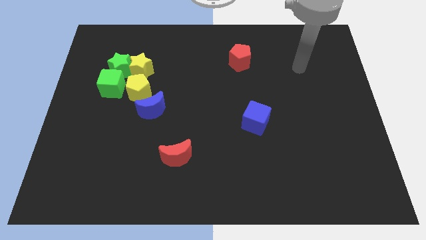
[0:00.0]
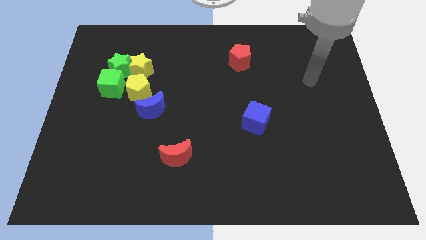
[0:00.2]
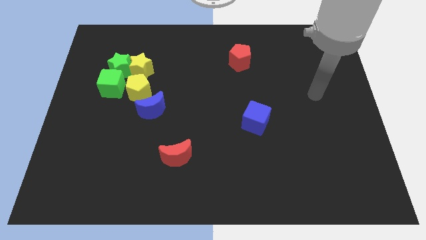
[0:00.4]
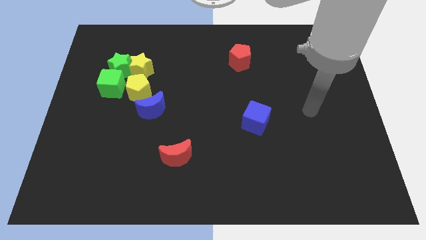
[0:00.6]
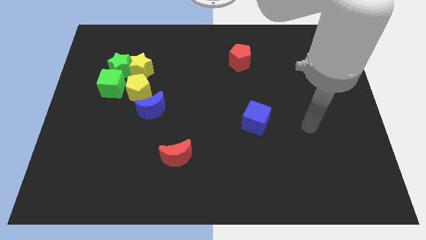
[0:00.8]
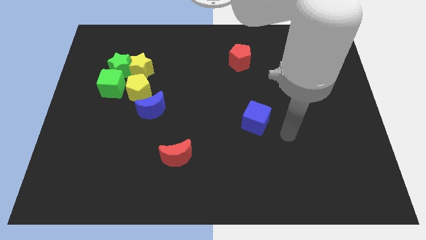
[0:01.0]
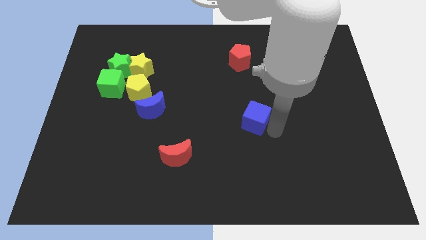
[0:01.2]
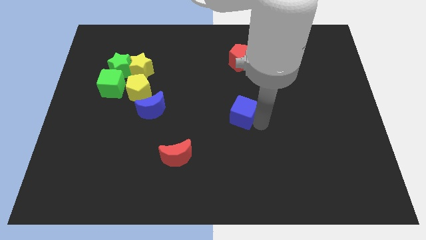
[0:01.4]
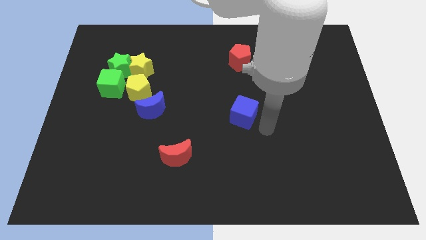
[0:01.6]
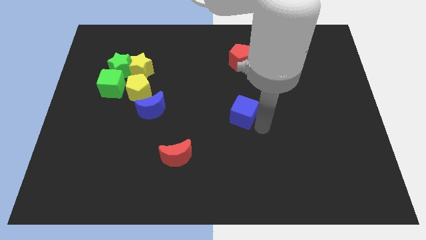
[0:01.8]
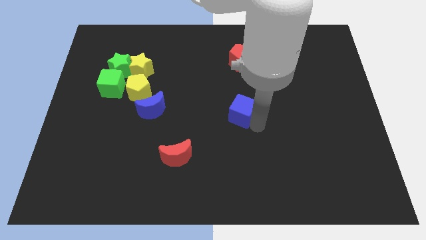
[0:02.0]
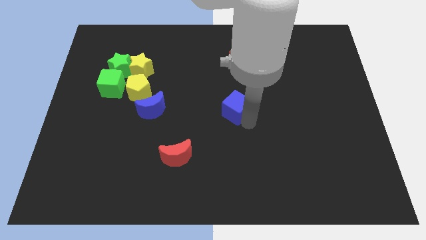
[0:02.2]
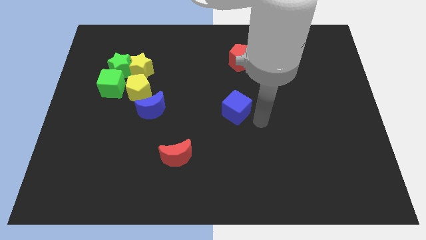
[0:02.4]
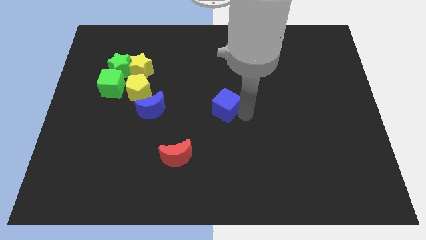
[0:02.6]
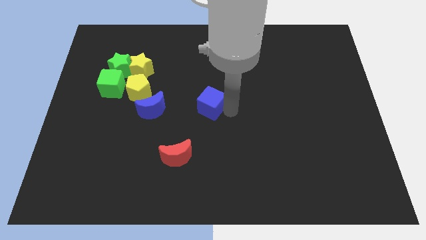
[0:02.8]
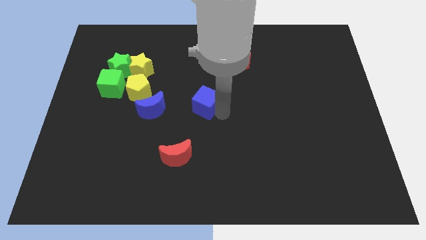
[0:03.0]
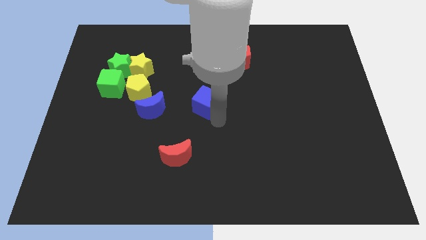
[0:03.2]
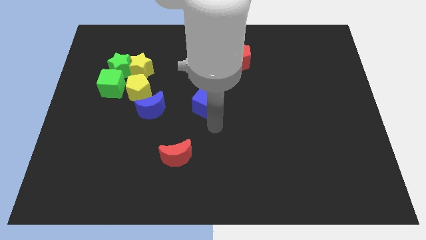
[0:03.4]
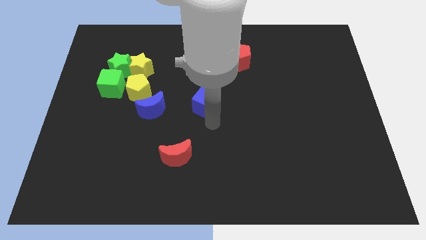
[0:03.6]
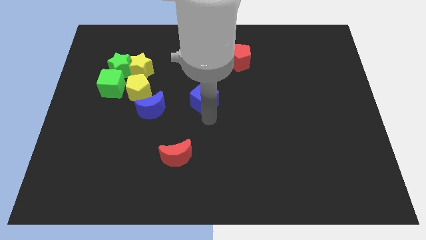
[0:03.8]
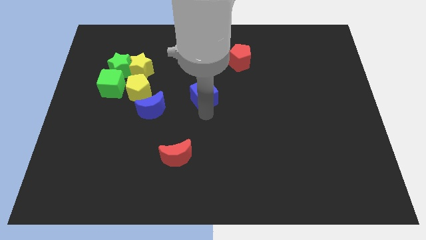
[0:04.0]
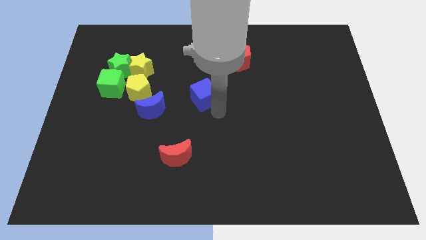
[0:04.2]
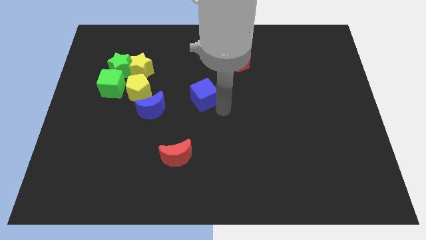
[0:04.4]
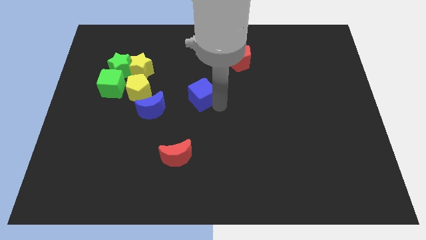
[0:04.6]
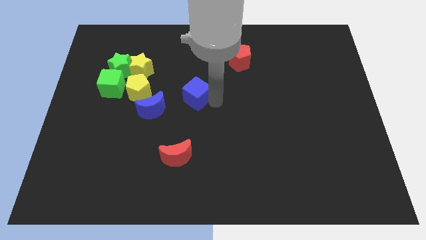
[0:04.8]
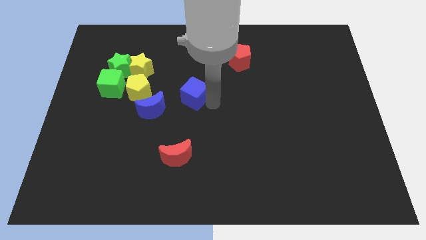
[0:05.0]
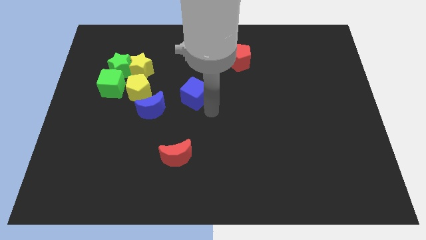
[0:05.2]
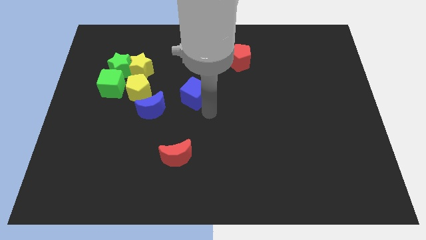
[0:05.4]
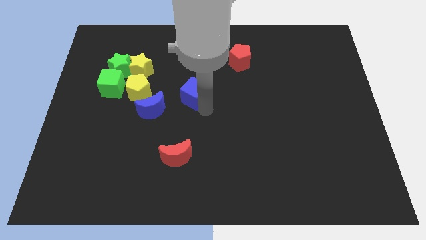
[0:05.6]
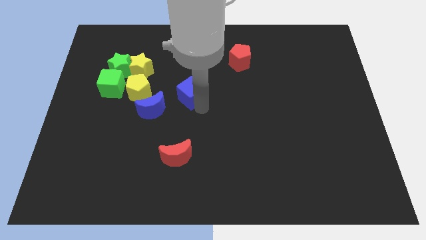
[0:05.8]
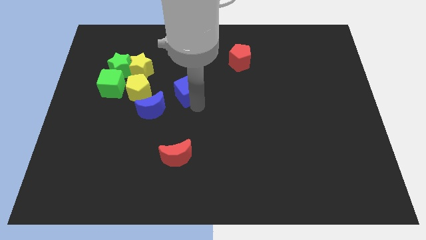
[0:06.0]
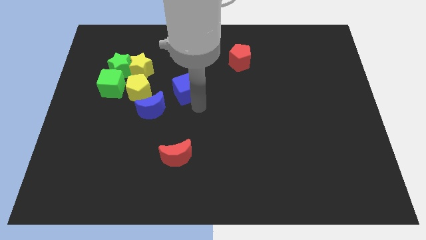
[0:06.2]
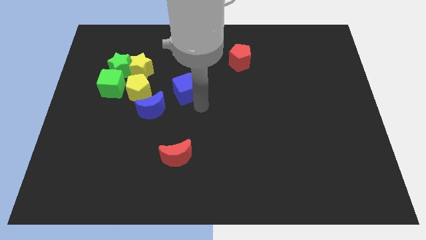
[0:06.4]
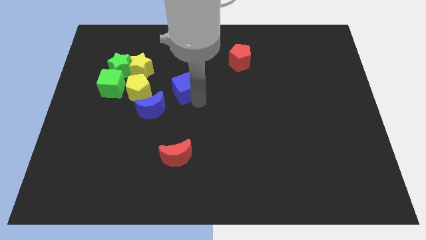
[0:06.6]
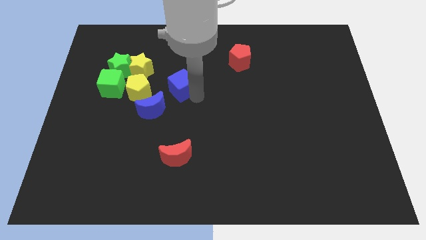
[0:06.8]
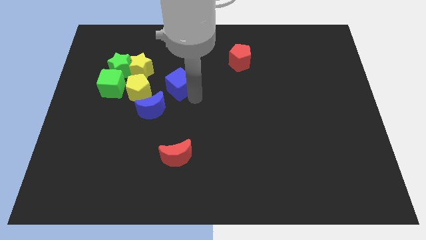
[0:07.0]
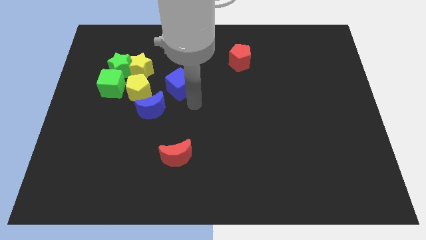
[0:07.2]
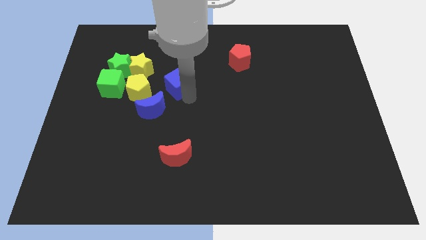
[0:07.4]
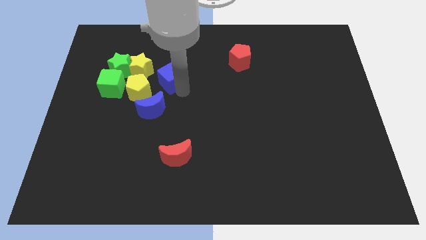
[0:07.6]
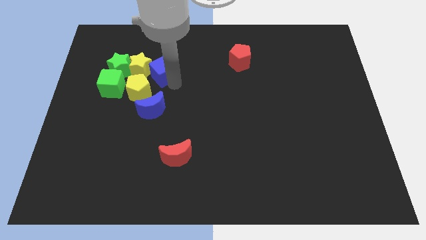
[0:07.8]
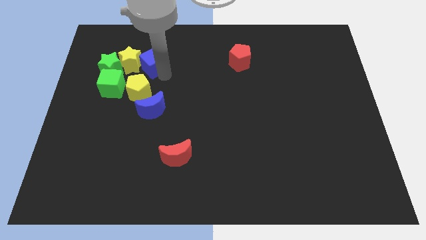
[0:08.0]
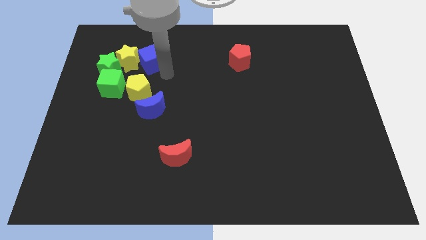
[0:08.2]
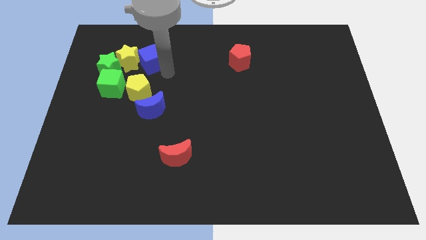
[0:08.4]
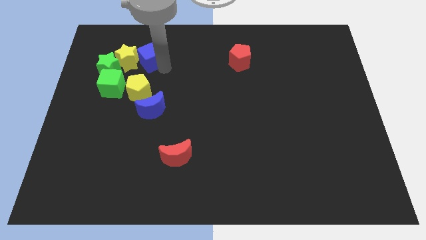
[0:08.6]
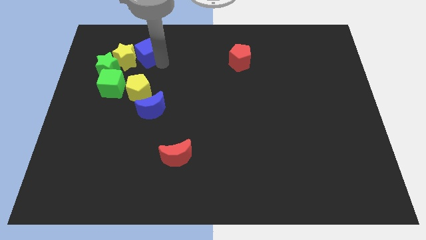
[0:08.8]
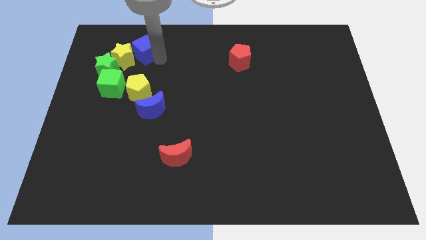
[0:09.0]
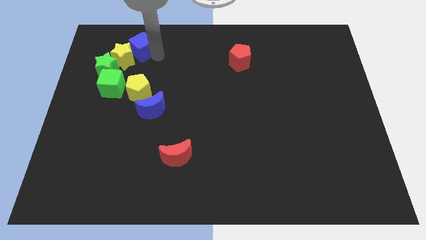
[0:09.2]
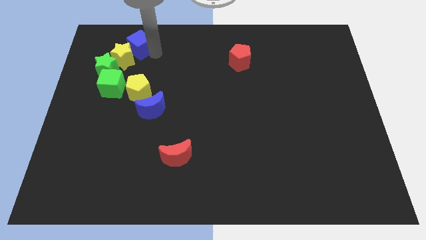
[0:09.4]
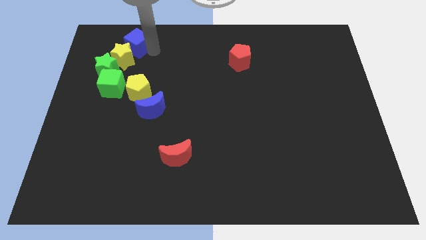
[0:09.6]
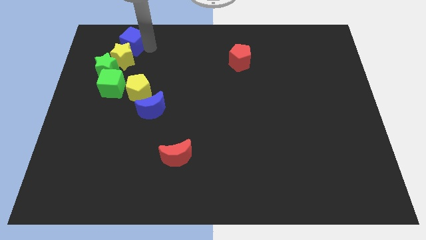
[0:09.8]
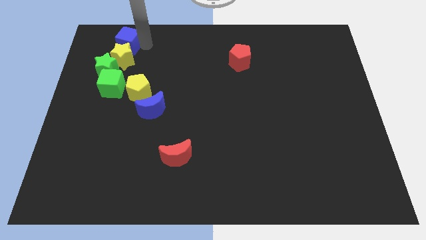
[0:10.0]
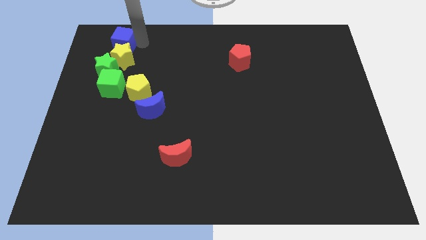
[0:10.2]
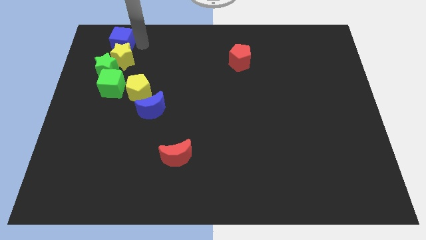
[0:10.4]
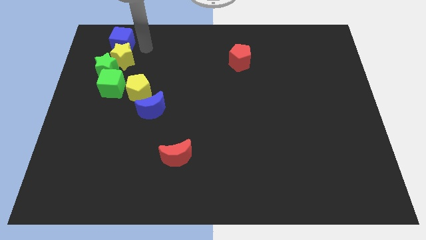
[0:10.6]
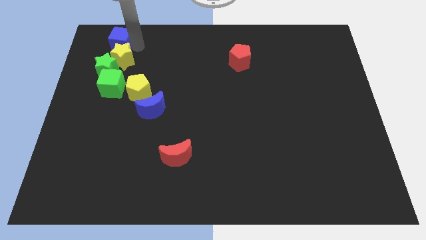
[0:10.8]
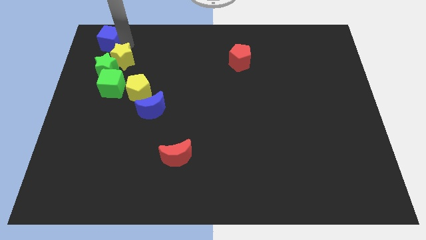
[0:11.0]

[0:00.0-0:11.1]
push the blue cube to the top left of the board

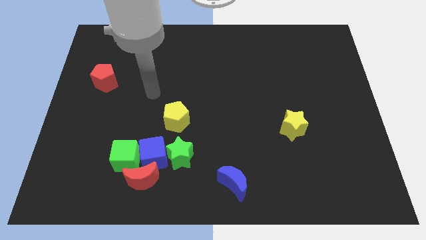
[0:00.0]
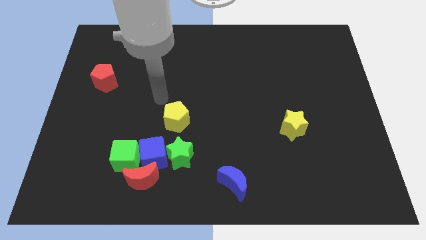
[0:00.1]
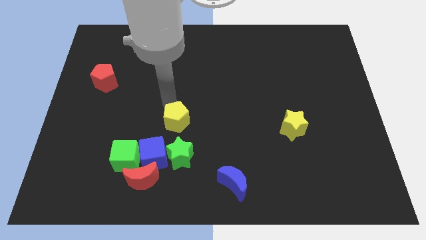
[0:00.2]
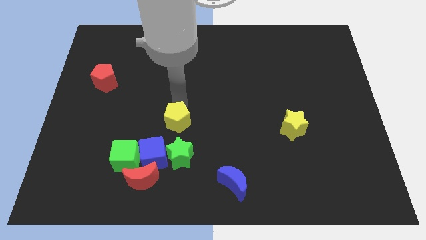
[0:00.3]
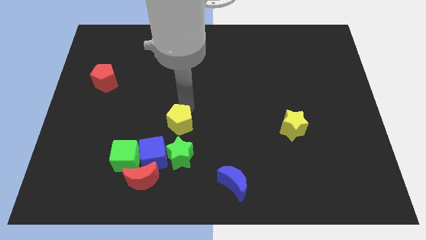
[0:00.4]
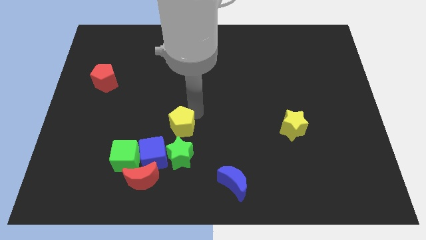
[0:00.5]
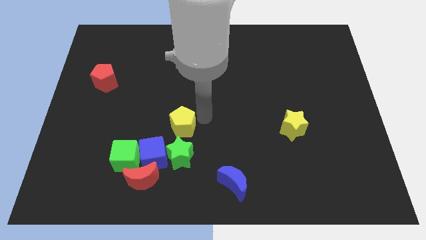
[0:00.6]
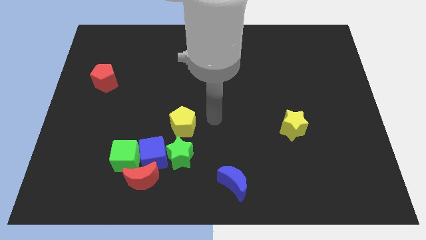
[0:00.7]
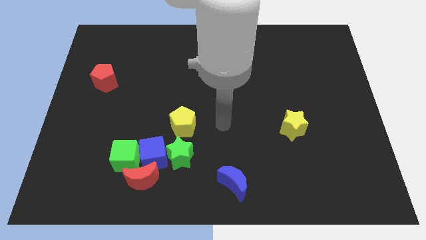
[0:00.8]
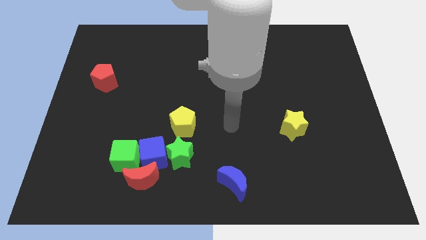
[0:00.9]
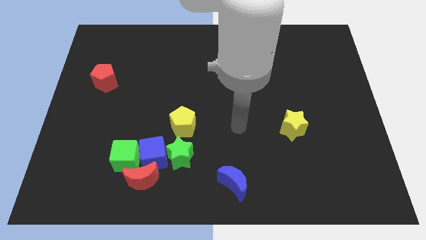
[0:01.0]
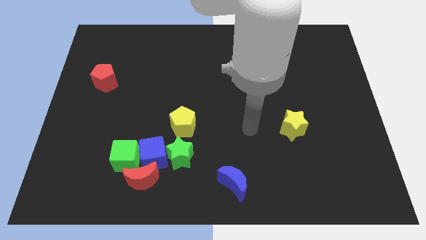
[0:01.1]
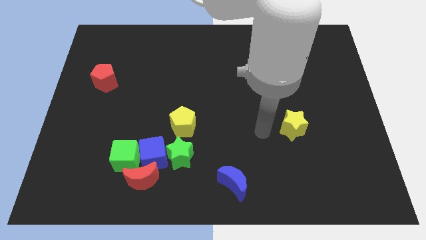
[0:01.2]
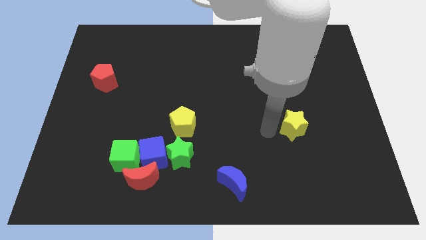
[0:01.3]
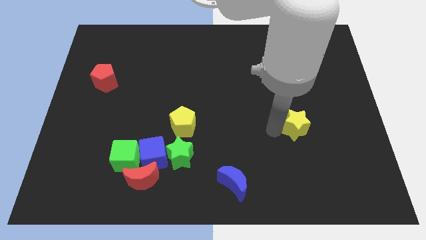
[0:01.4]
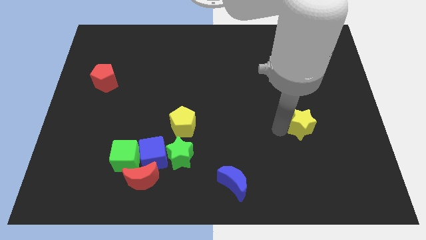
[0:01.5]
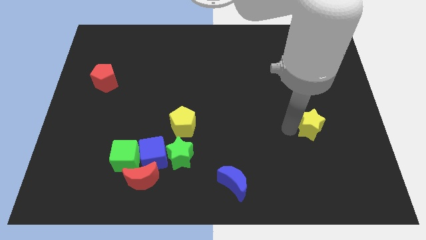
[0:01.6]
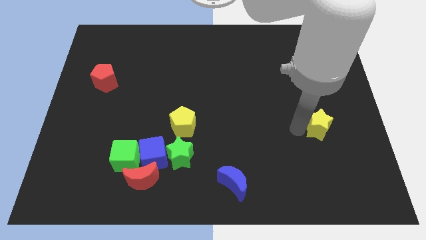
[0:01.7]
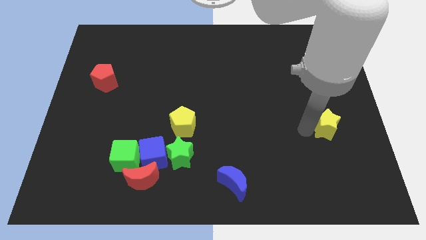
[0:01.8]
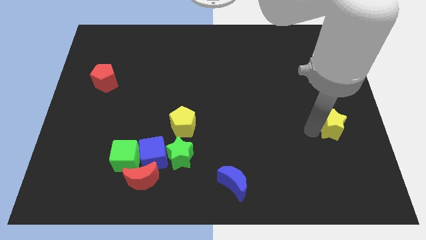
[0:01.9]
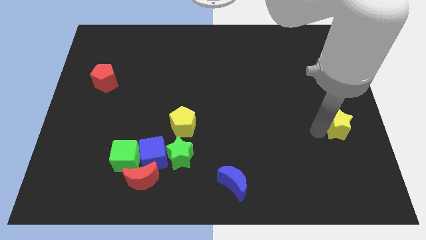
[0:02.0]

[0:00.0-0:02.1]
push the yellow star to the right side of the board
